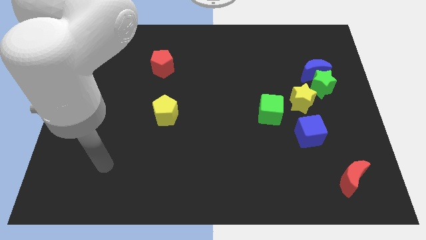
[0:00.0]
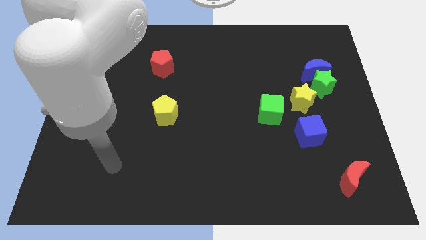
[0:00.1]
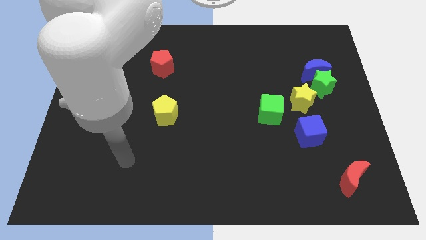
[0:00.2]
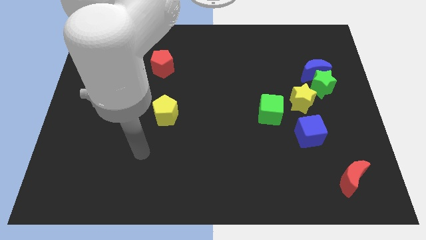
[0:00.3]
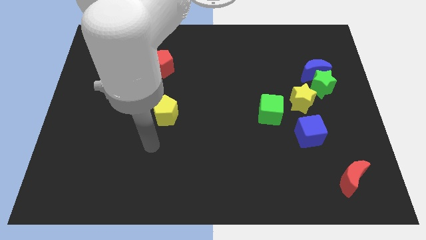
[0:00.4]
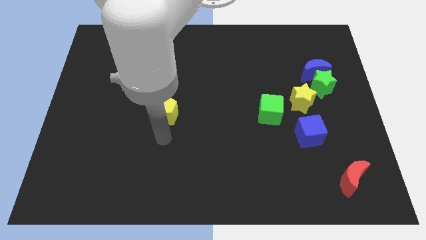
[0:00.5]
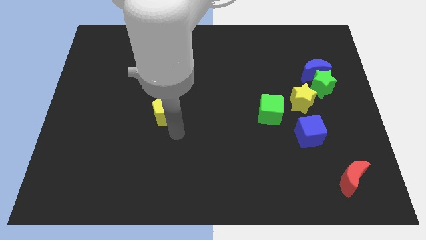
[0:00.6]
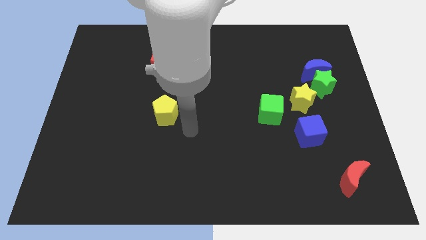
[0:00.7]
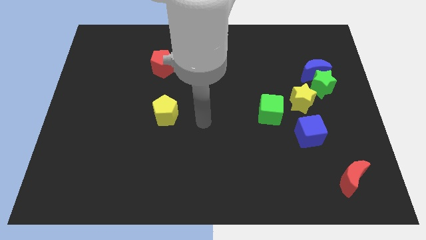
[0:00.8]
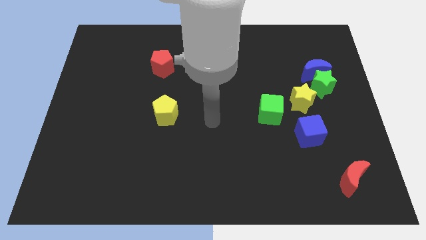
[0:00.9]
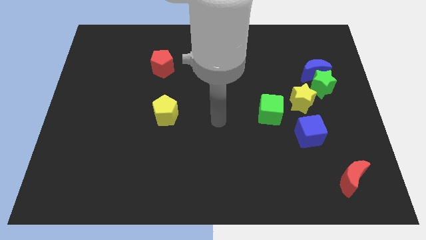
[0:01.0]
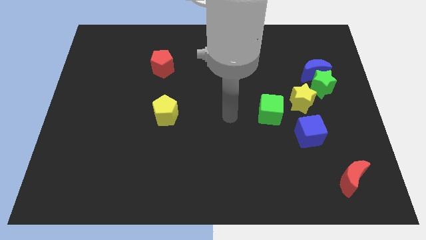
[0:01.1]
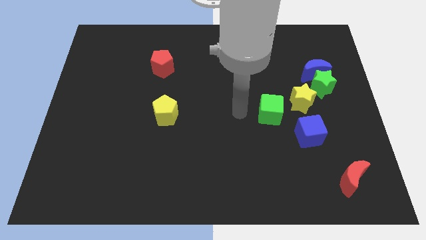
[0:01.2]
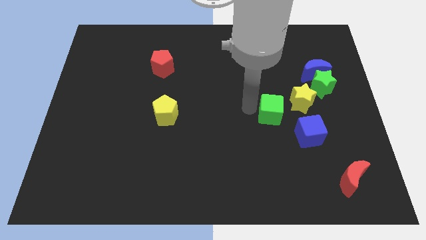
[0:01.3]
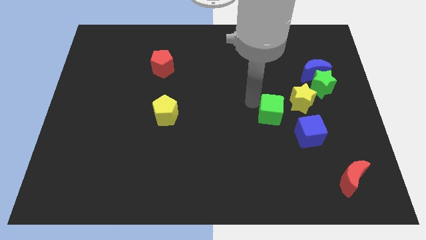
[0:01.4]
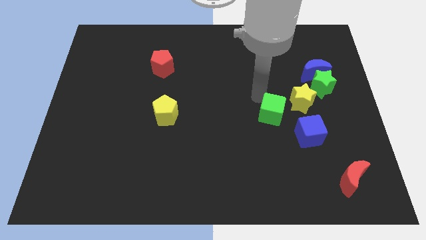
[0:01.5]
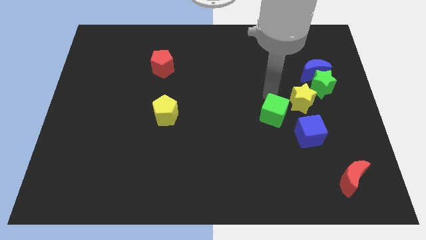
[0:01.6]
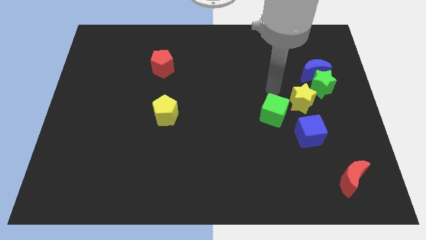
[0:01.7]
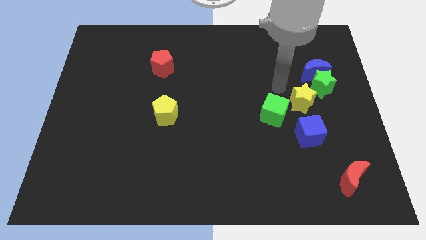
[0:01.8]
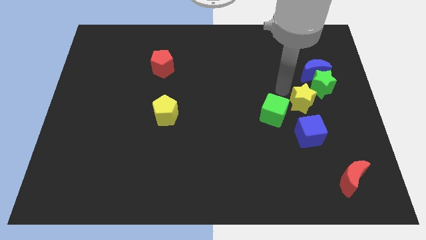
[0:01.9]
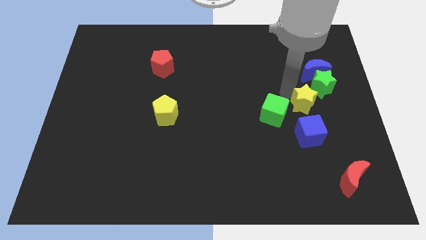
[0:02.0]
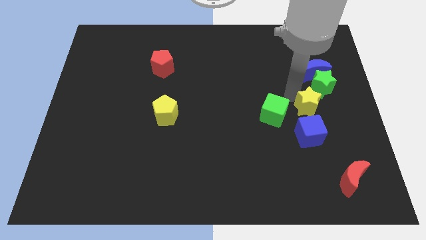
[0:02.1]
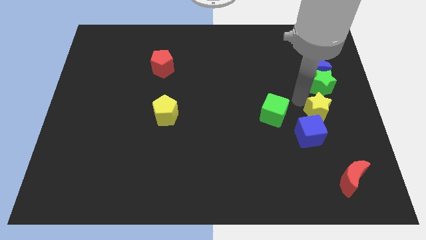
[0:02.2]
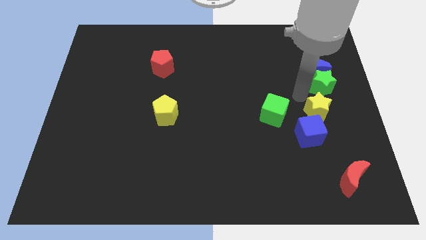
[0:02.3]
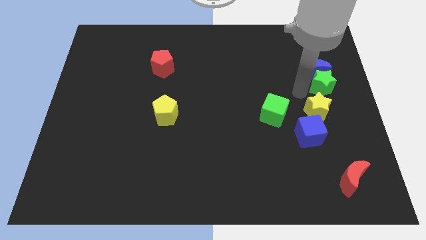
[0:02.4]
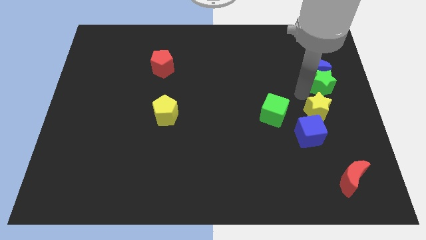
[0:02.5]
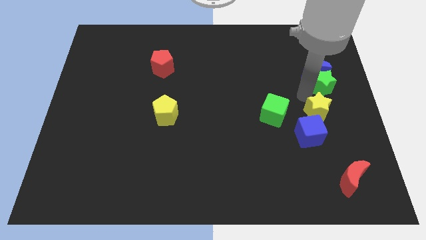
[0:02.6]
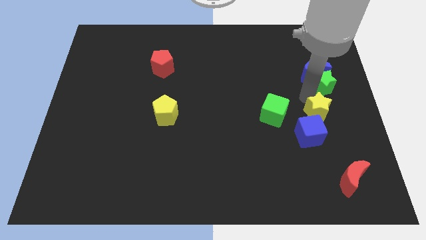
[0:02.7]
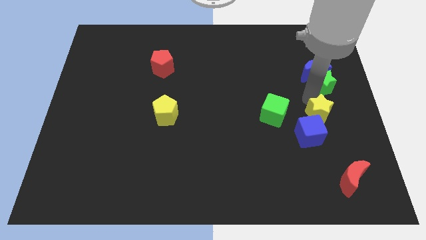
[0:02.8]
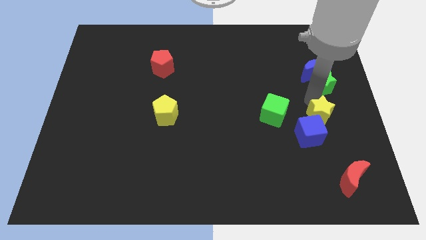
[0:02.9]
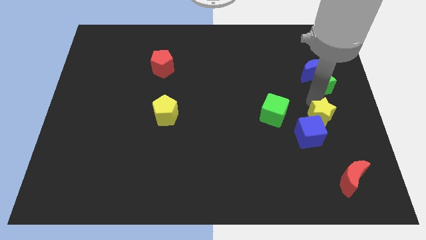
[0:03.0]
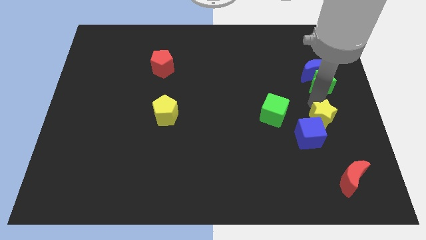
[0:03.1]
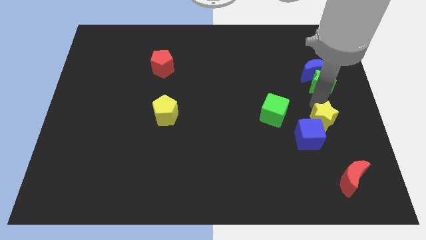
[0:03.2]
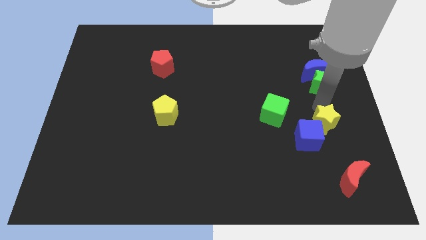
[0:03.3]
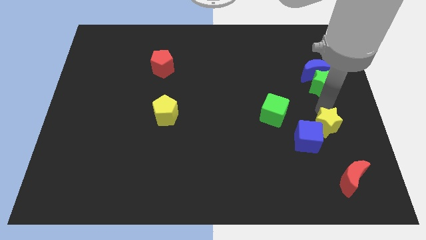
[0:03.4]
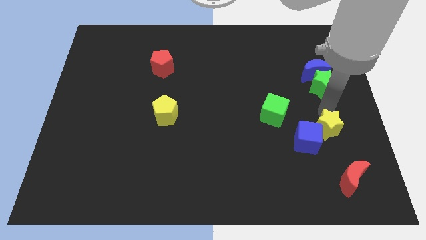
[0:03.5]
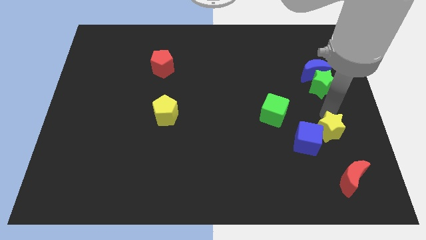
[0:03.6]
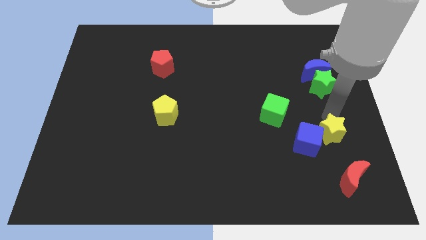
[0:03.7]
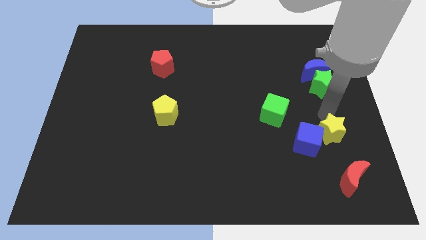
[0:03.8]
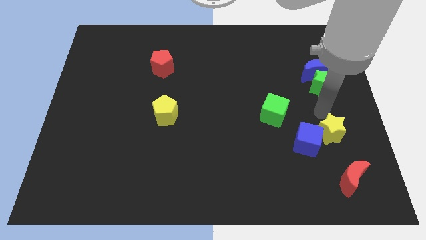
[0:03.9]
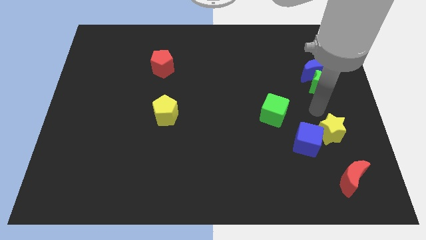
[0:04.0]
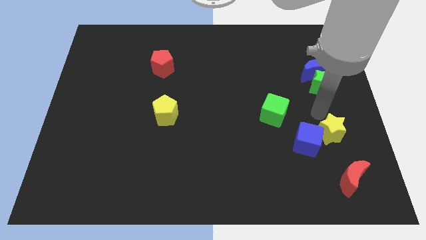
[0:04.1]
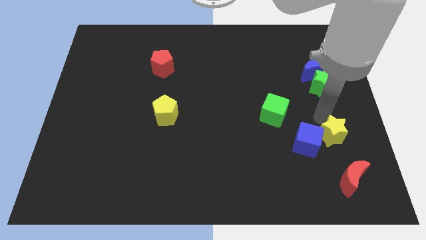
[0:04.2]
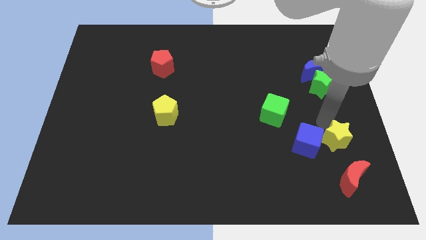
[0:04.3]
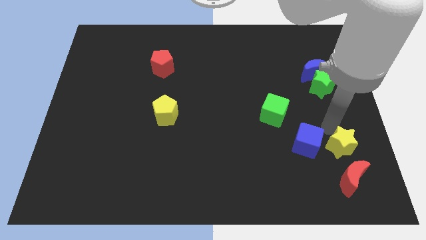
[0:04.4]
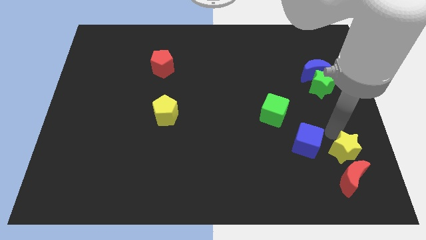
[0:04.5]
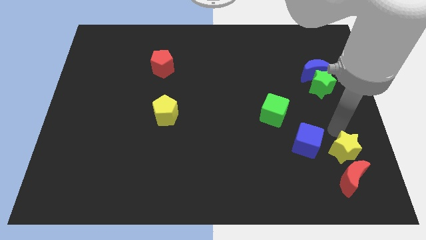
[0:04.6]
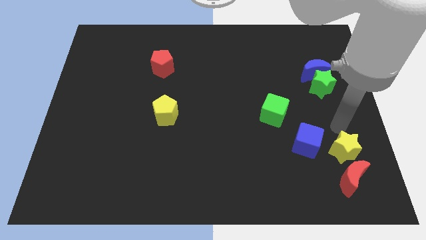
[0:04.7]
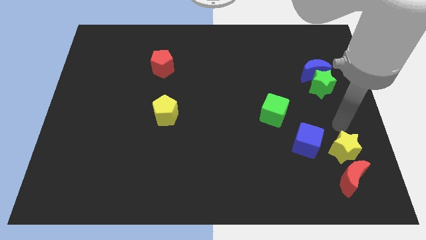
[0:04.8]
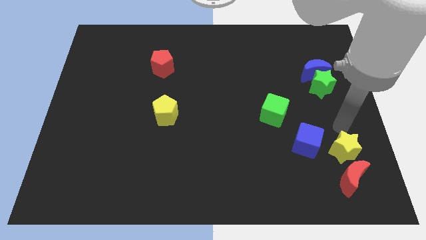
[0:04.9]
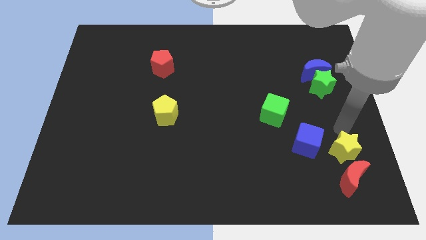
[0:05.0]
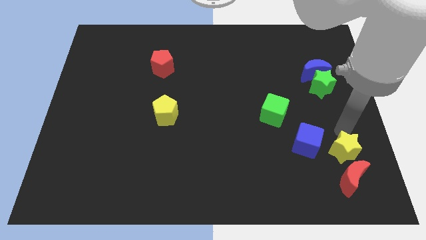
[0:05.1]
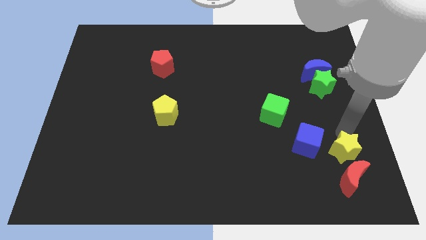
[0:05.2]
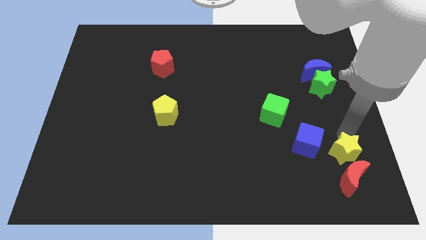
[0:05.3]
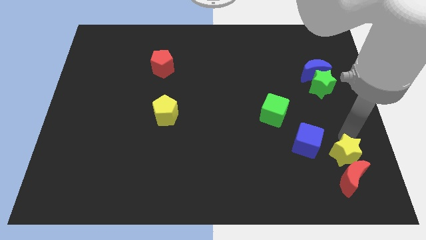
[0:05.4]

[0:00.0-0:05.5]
slide the yellow star to the red moon

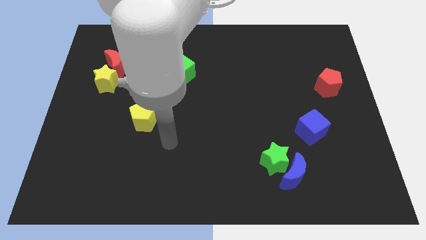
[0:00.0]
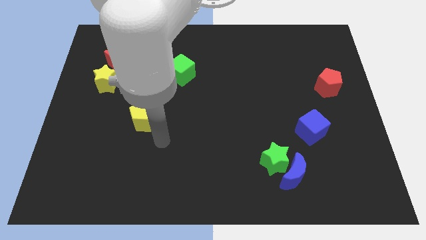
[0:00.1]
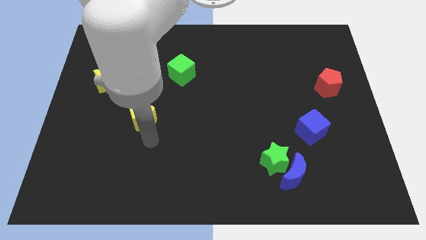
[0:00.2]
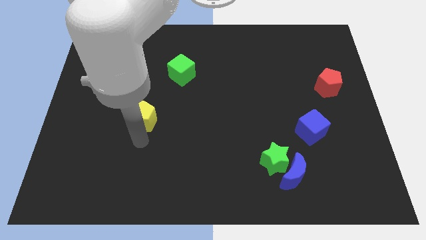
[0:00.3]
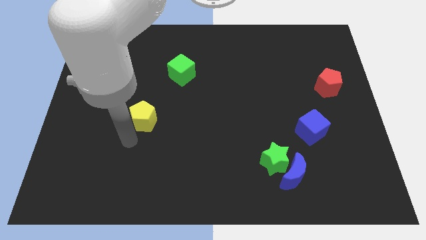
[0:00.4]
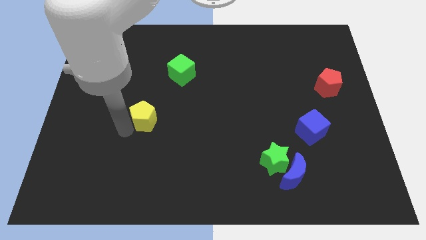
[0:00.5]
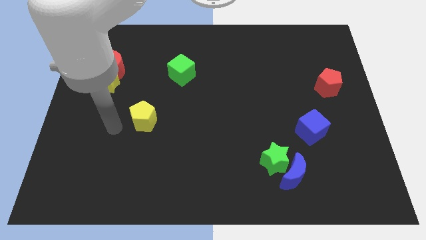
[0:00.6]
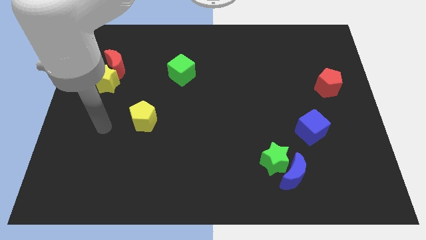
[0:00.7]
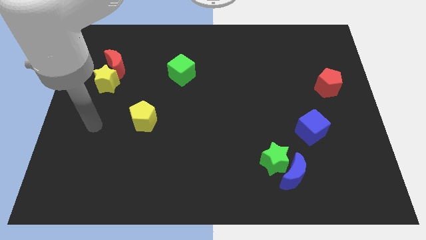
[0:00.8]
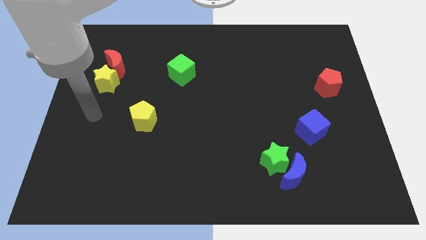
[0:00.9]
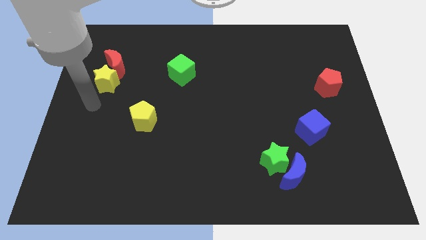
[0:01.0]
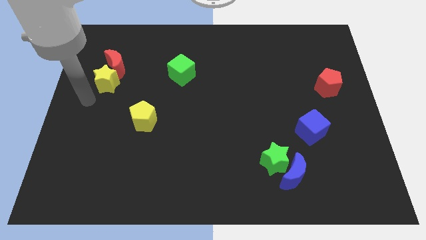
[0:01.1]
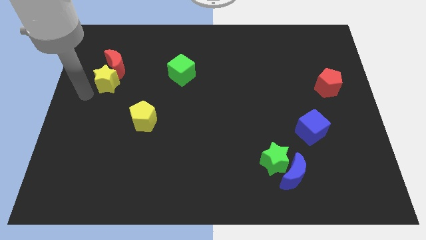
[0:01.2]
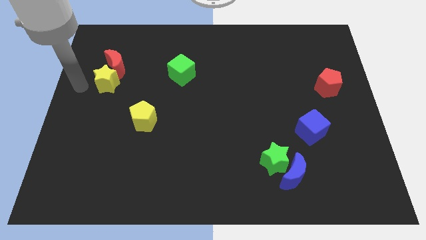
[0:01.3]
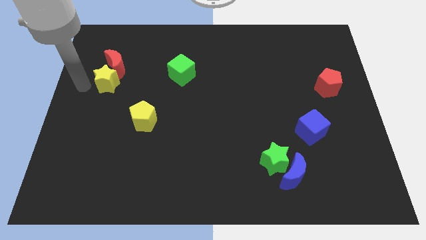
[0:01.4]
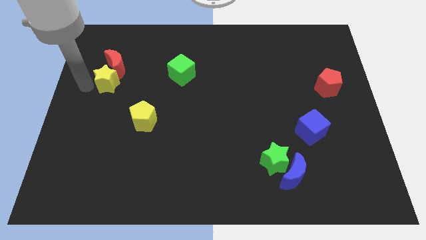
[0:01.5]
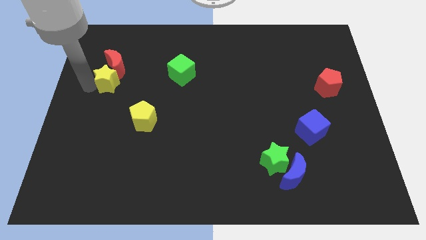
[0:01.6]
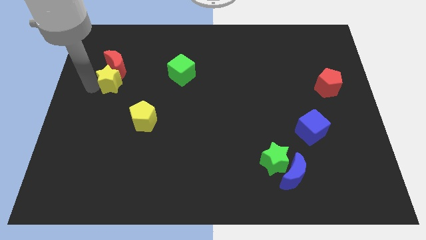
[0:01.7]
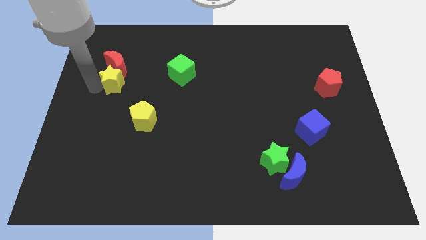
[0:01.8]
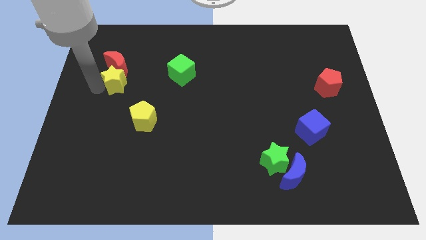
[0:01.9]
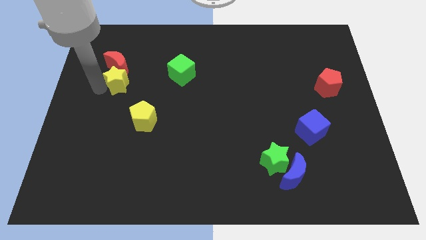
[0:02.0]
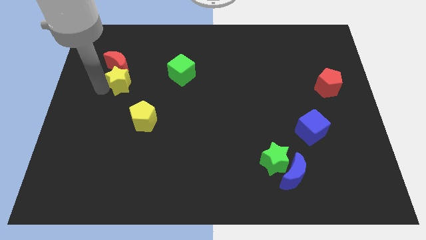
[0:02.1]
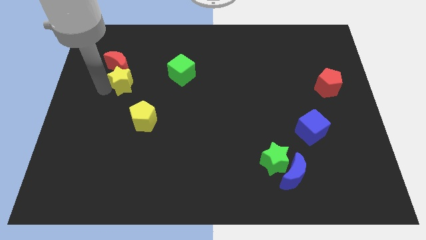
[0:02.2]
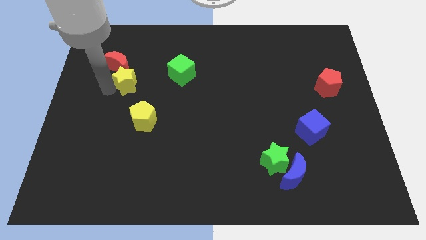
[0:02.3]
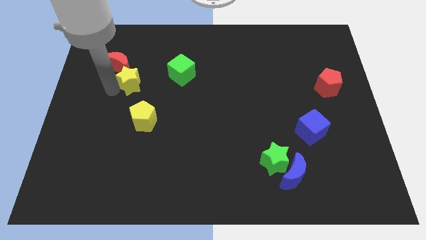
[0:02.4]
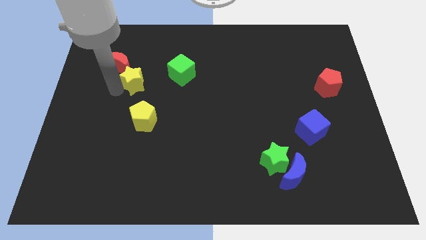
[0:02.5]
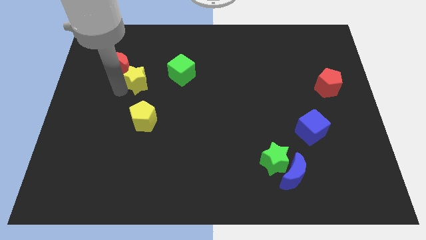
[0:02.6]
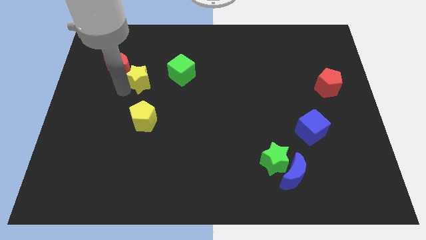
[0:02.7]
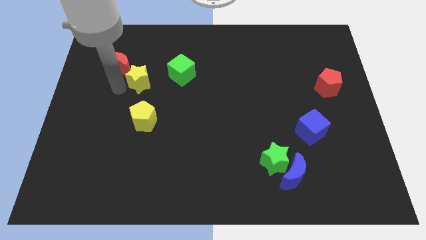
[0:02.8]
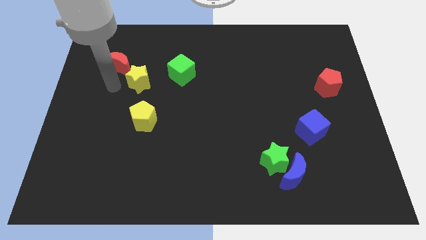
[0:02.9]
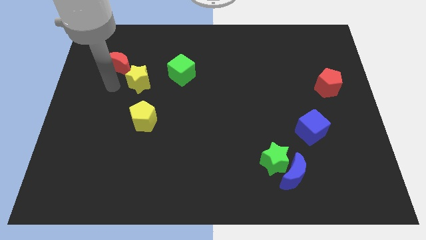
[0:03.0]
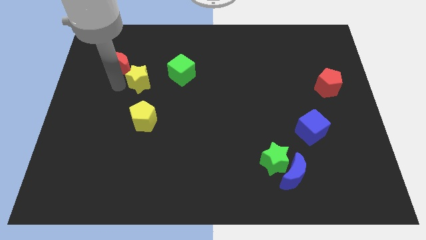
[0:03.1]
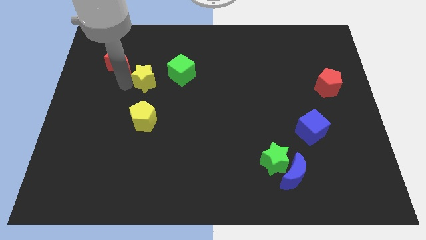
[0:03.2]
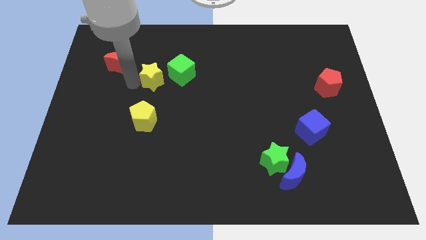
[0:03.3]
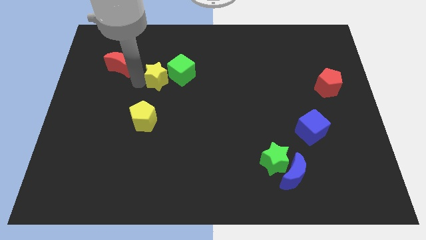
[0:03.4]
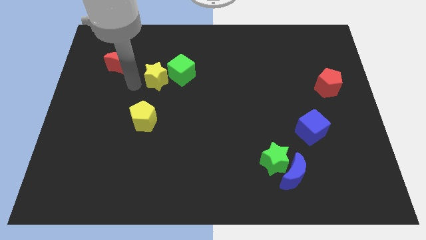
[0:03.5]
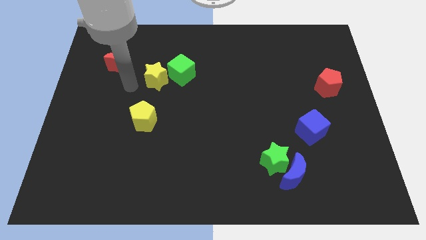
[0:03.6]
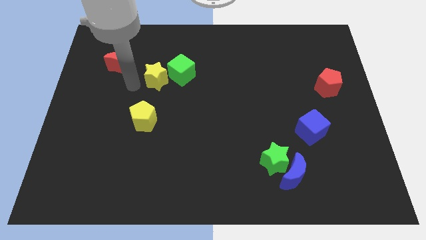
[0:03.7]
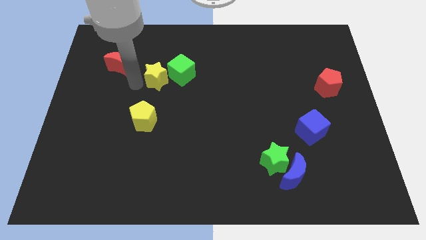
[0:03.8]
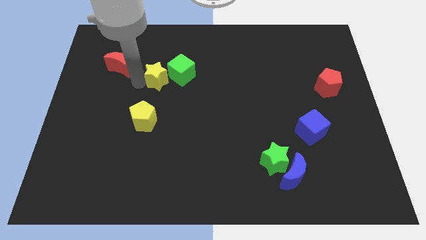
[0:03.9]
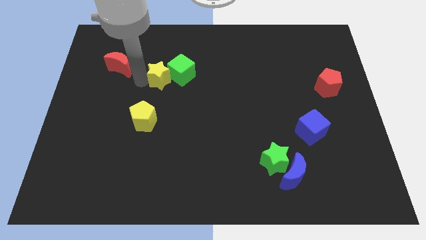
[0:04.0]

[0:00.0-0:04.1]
put the yellow star towards the green cube
